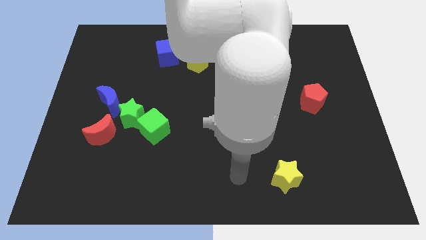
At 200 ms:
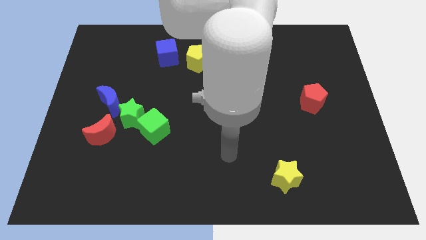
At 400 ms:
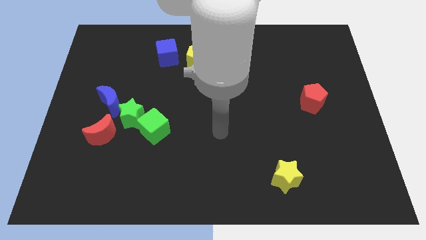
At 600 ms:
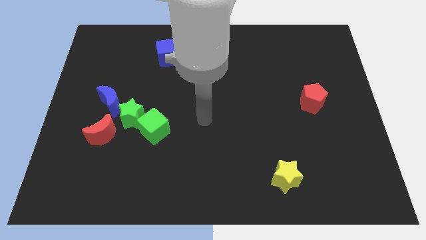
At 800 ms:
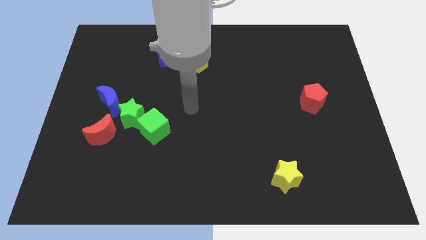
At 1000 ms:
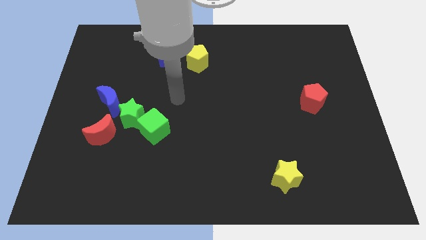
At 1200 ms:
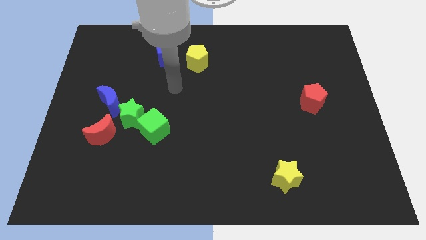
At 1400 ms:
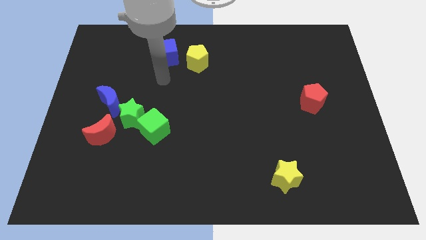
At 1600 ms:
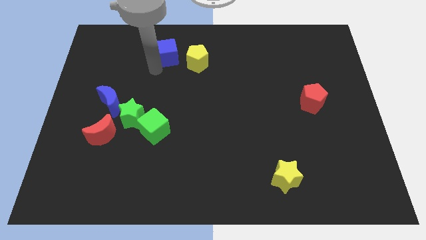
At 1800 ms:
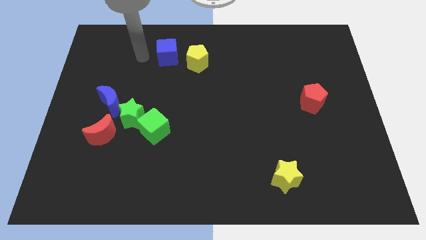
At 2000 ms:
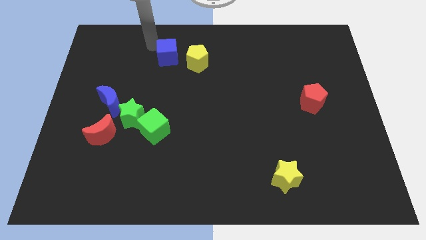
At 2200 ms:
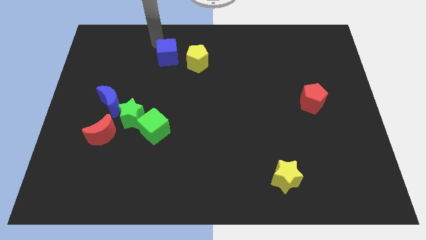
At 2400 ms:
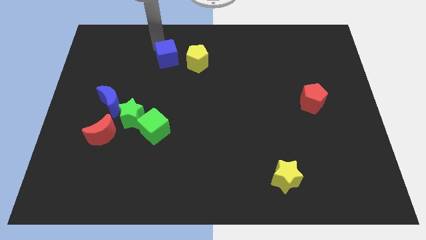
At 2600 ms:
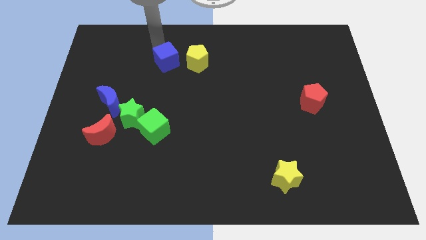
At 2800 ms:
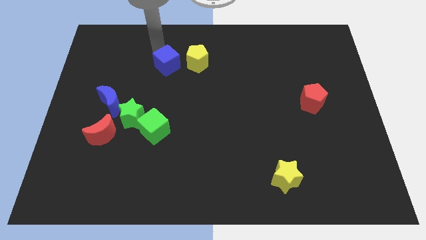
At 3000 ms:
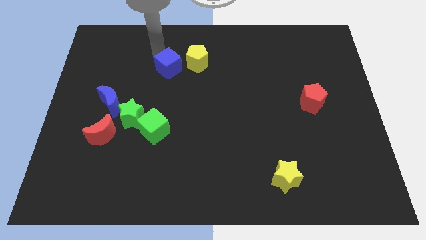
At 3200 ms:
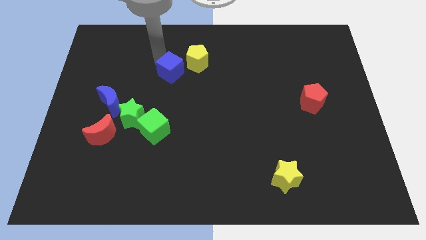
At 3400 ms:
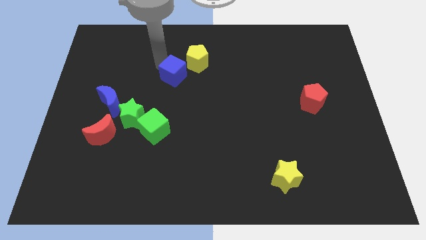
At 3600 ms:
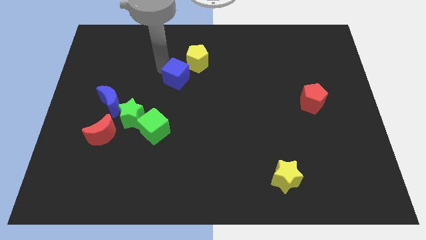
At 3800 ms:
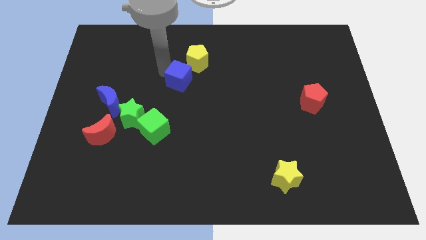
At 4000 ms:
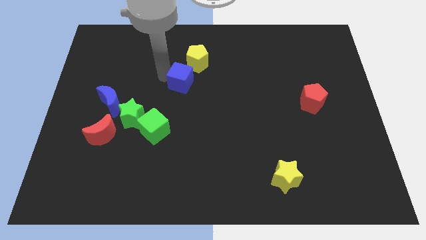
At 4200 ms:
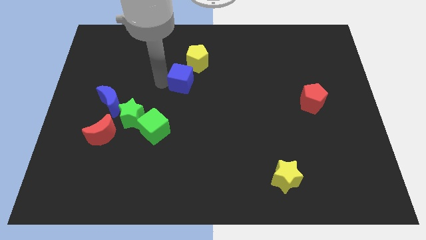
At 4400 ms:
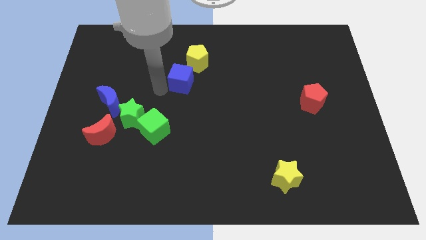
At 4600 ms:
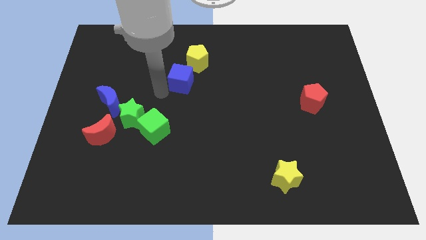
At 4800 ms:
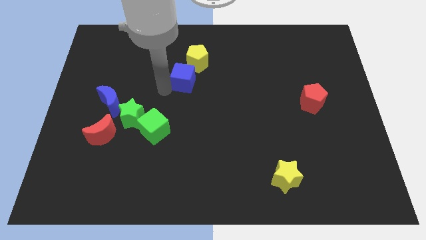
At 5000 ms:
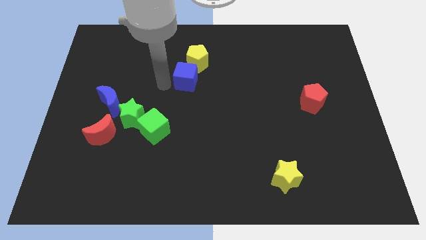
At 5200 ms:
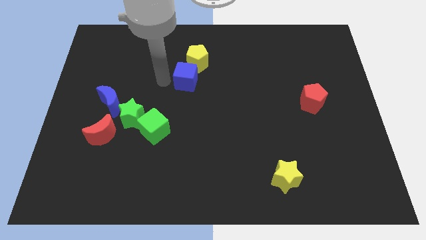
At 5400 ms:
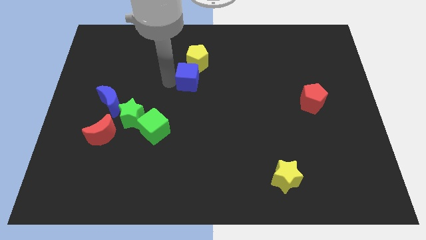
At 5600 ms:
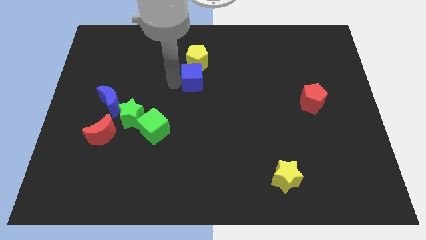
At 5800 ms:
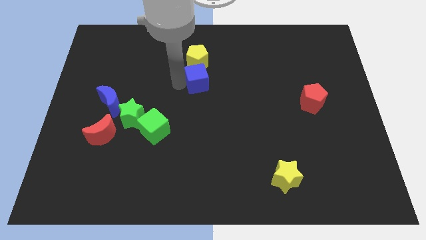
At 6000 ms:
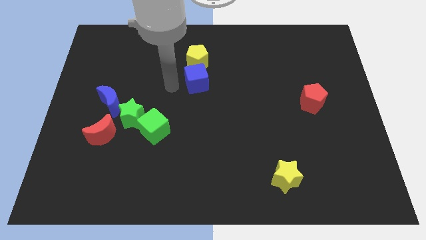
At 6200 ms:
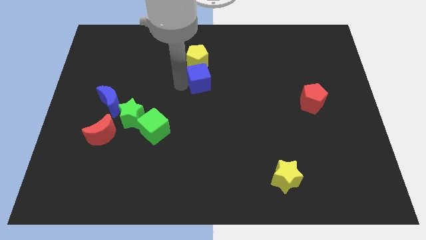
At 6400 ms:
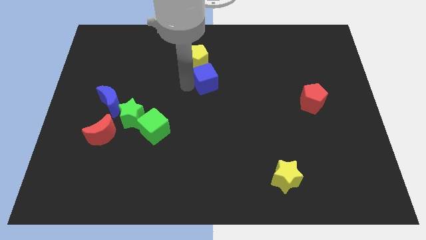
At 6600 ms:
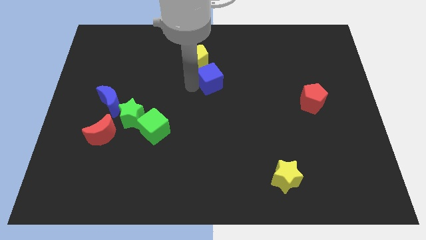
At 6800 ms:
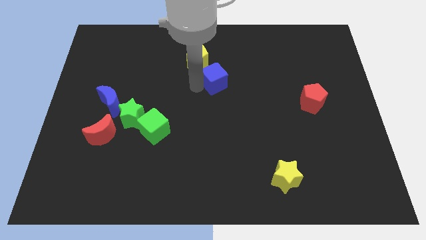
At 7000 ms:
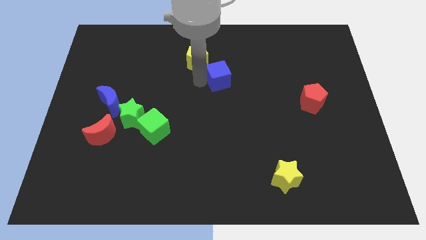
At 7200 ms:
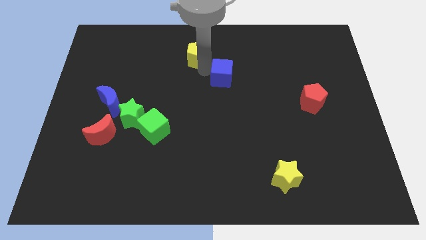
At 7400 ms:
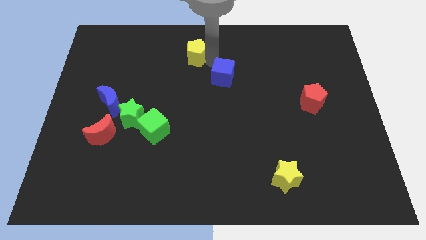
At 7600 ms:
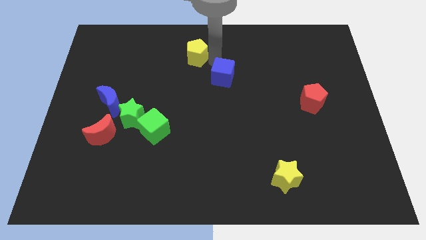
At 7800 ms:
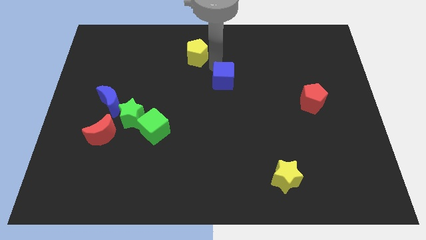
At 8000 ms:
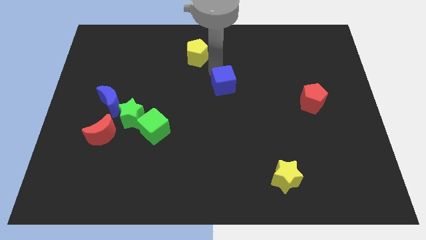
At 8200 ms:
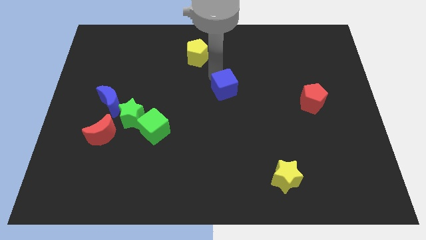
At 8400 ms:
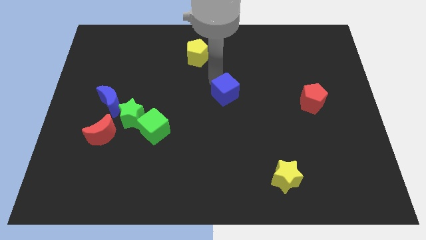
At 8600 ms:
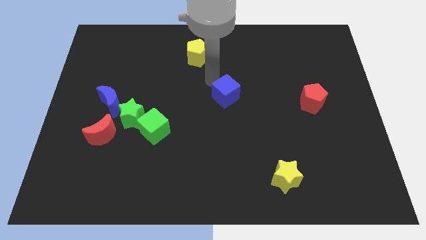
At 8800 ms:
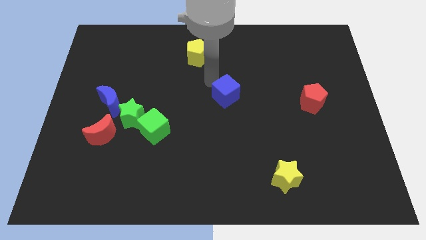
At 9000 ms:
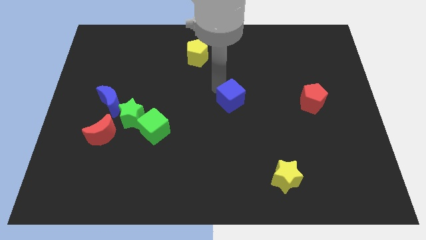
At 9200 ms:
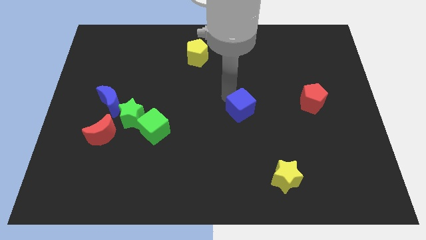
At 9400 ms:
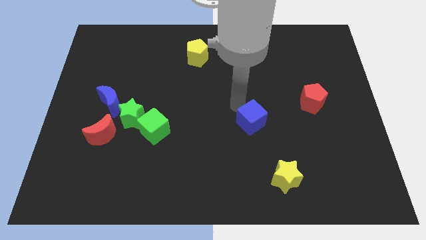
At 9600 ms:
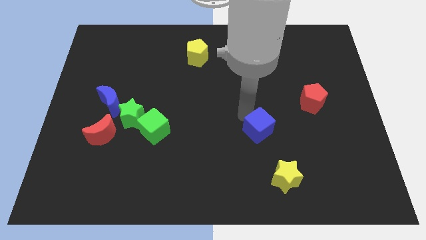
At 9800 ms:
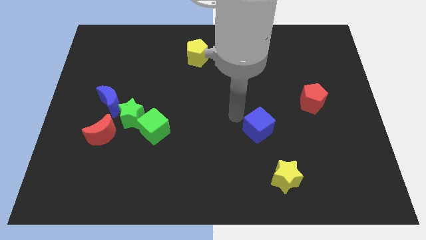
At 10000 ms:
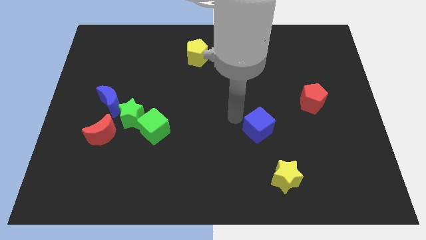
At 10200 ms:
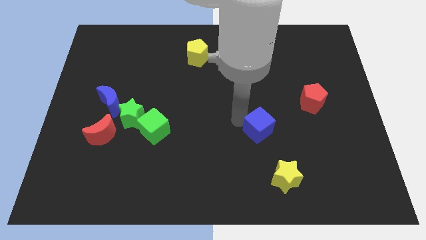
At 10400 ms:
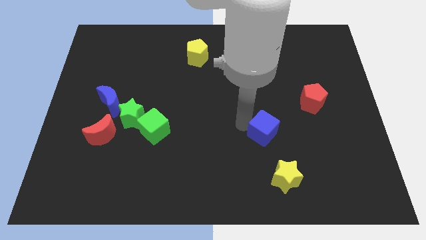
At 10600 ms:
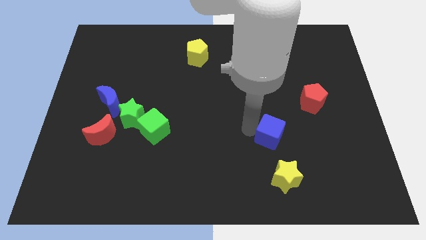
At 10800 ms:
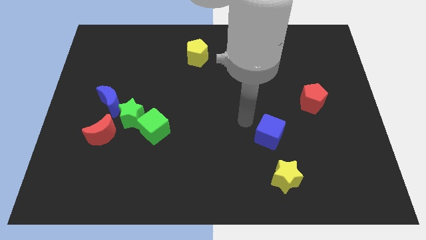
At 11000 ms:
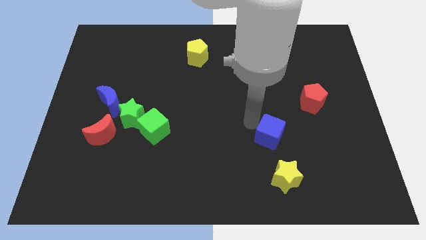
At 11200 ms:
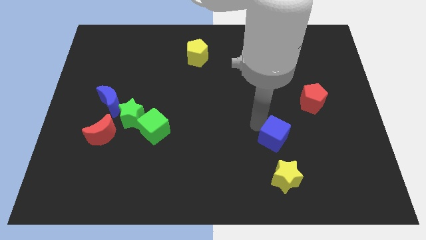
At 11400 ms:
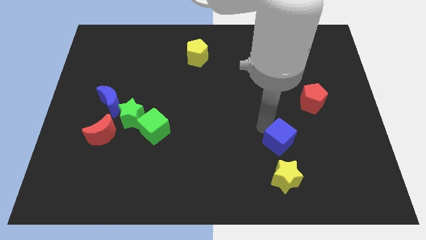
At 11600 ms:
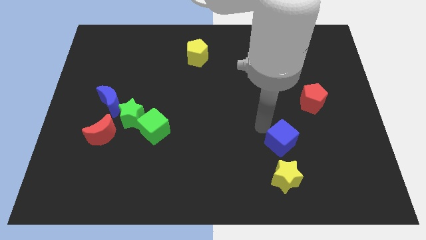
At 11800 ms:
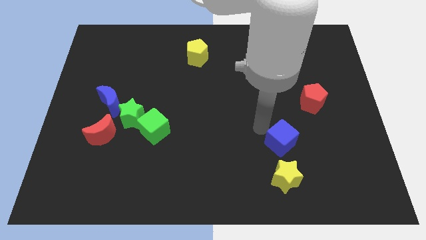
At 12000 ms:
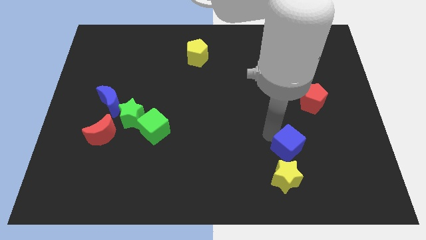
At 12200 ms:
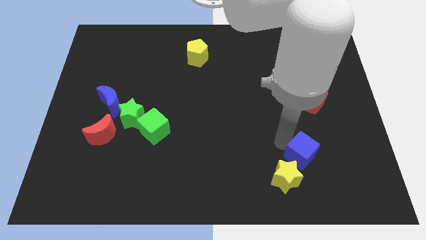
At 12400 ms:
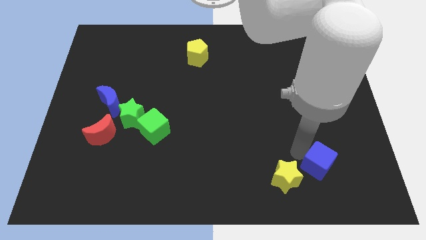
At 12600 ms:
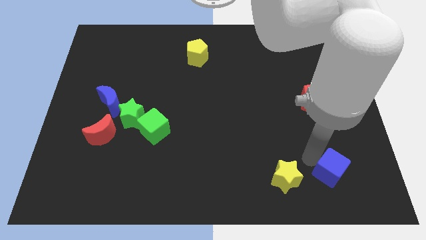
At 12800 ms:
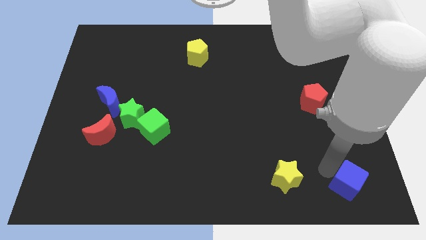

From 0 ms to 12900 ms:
move the blue cube to the bottom right of the board
